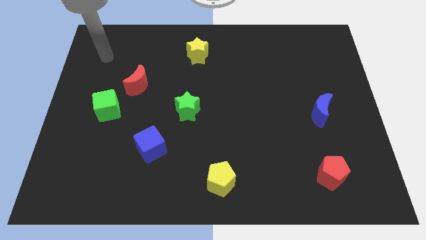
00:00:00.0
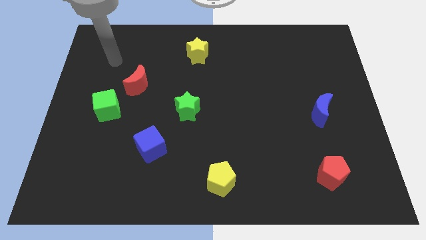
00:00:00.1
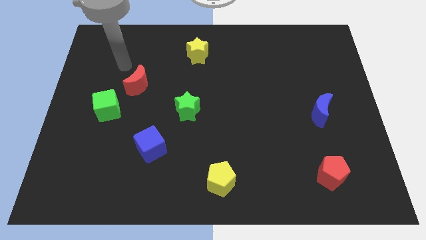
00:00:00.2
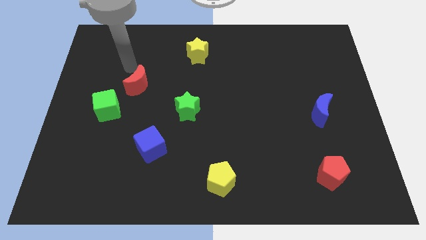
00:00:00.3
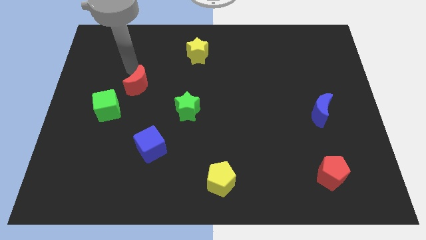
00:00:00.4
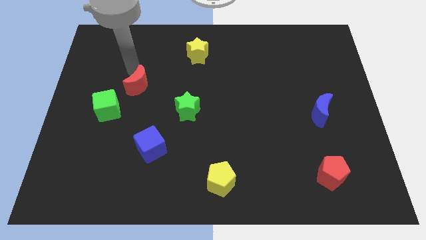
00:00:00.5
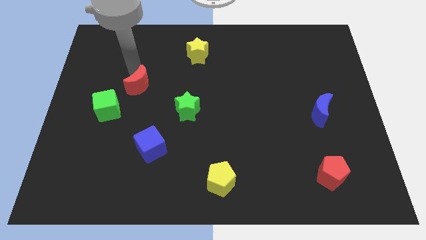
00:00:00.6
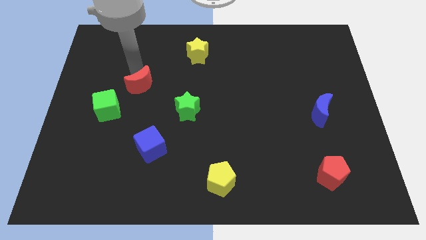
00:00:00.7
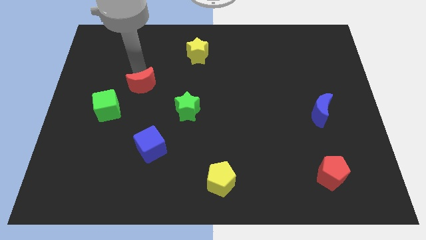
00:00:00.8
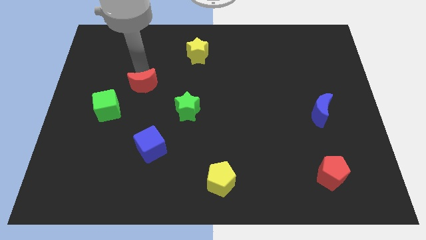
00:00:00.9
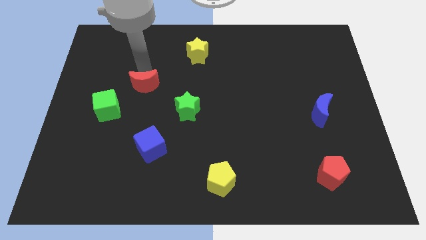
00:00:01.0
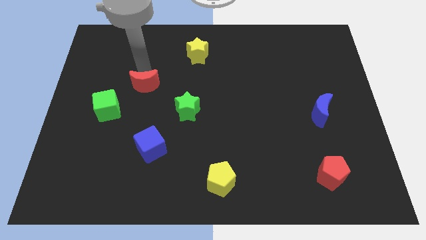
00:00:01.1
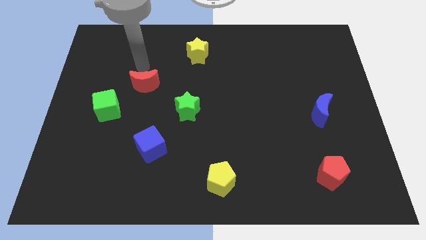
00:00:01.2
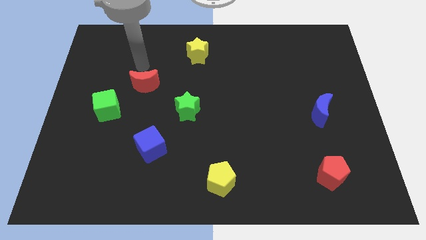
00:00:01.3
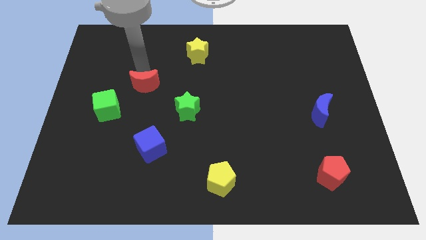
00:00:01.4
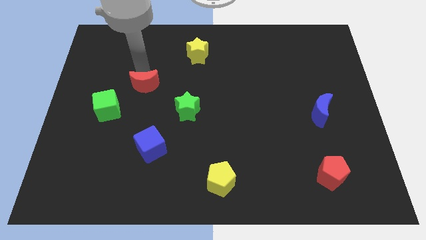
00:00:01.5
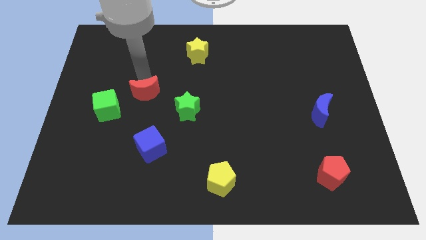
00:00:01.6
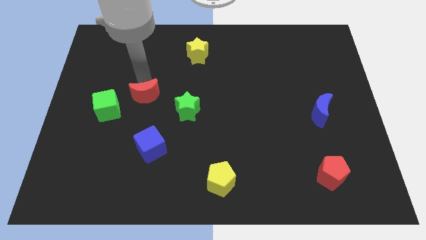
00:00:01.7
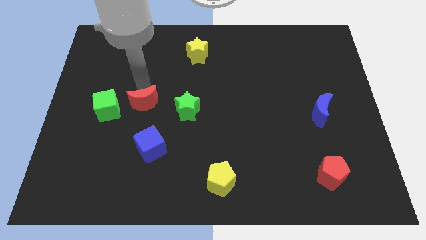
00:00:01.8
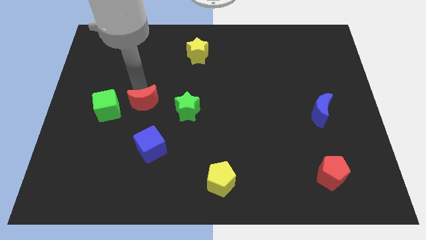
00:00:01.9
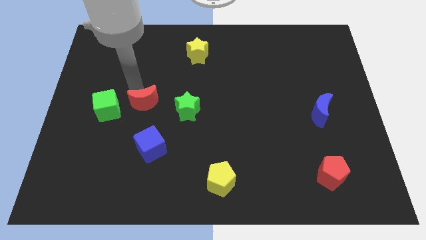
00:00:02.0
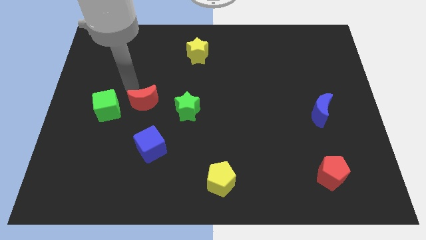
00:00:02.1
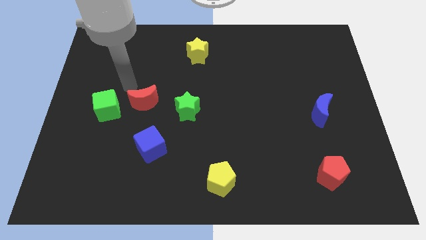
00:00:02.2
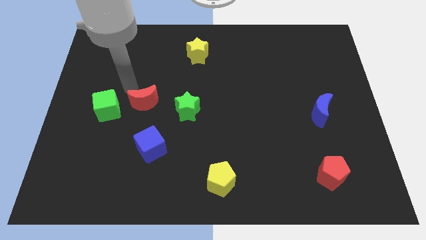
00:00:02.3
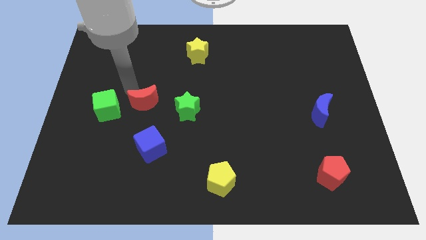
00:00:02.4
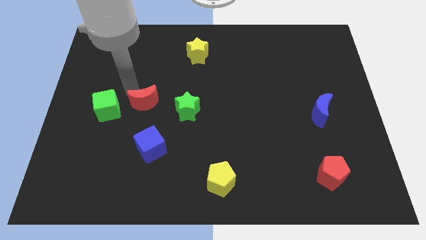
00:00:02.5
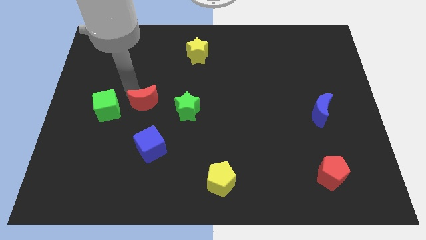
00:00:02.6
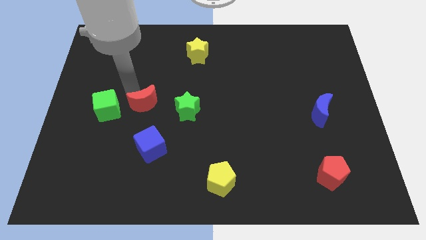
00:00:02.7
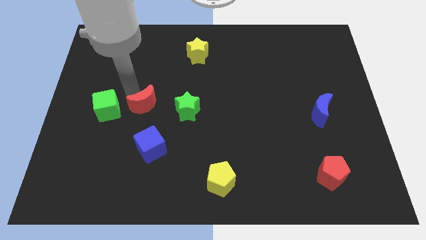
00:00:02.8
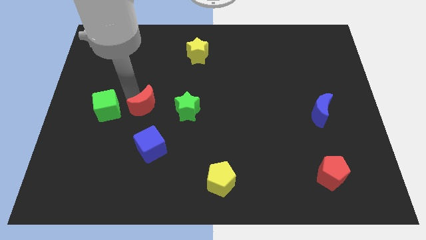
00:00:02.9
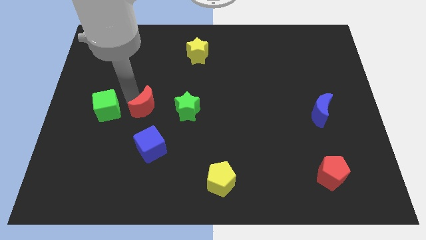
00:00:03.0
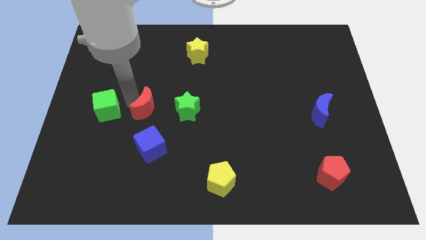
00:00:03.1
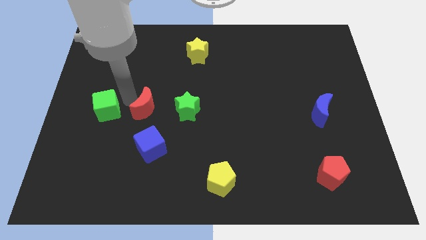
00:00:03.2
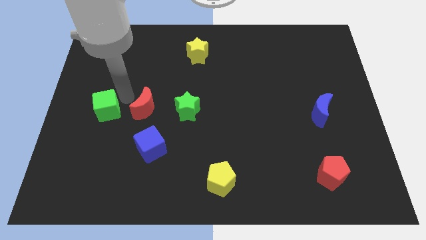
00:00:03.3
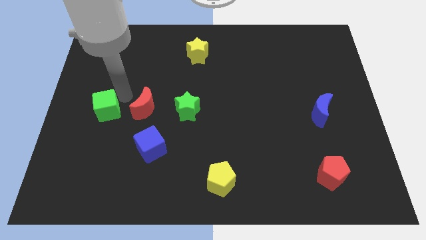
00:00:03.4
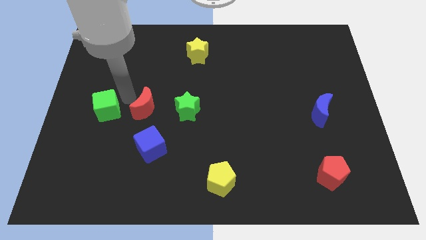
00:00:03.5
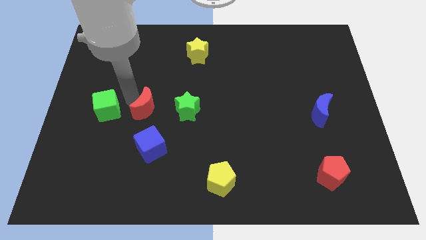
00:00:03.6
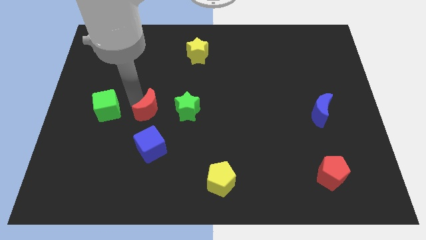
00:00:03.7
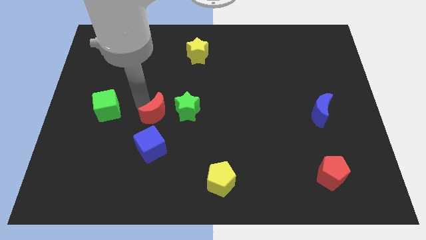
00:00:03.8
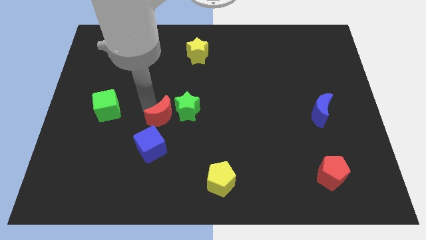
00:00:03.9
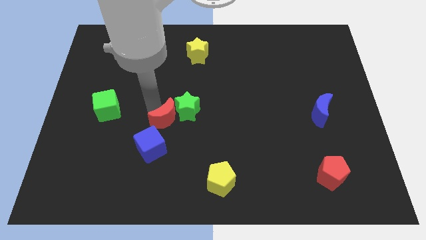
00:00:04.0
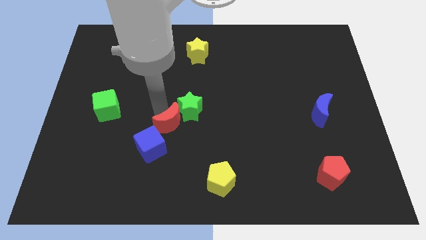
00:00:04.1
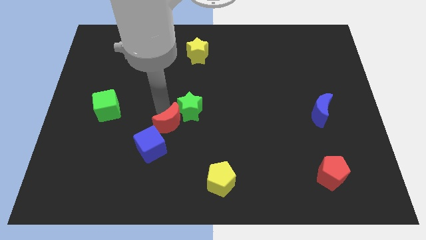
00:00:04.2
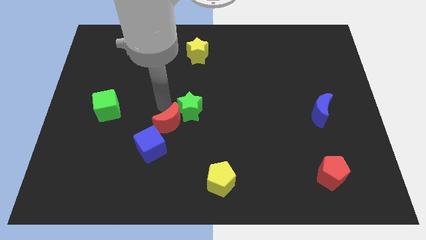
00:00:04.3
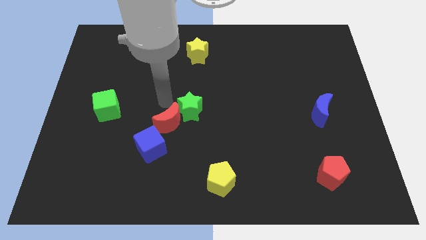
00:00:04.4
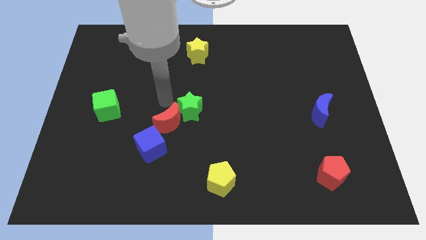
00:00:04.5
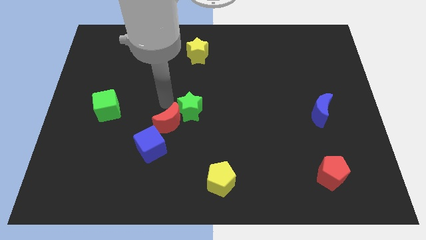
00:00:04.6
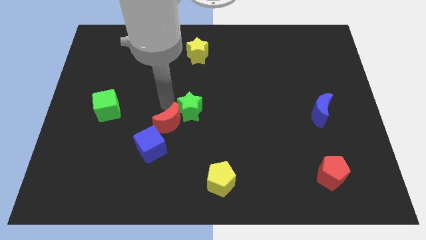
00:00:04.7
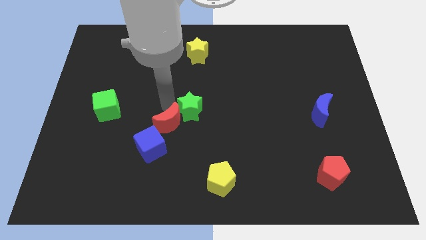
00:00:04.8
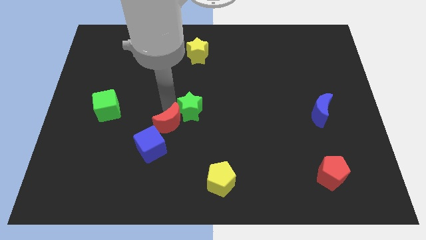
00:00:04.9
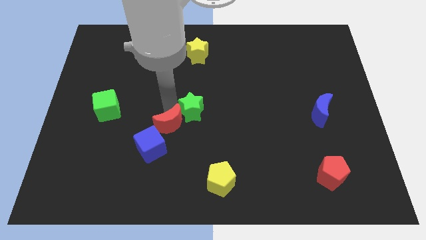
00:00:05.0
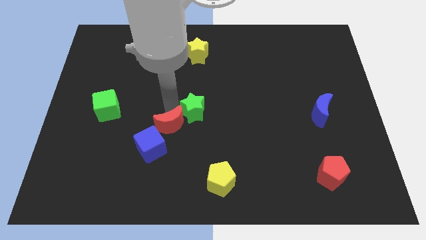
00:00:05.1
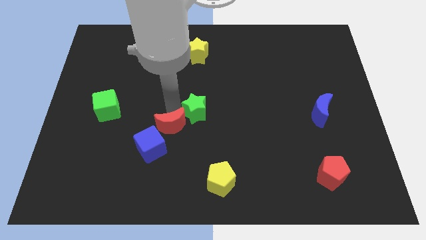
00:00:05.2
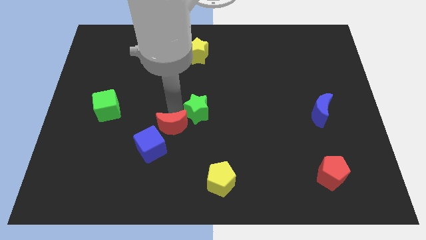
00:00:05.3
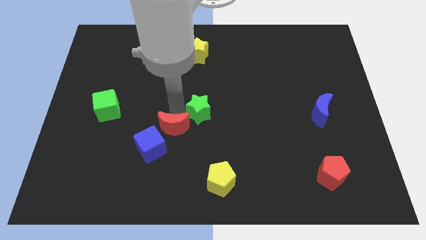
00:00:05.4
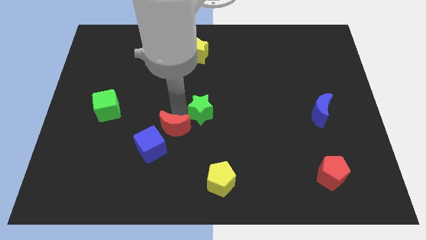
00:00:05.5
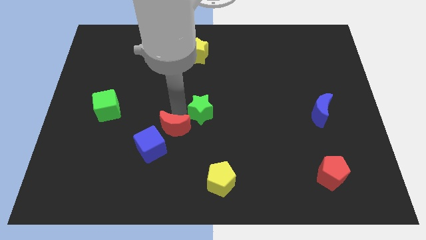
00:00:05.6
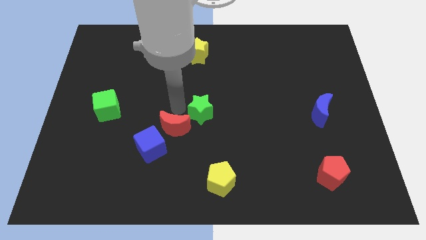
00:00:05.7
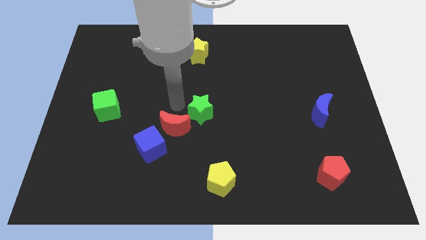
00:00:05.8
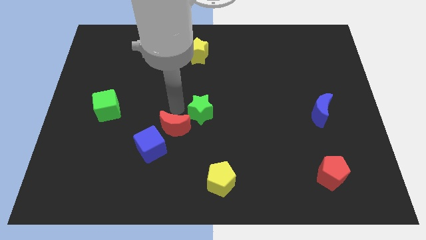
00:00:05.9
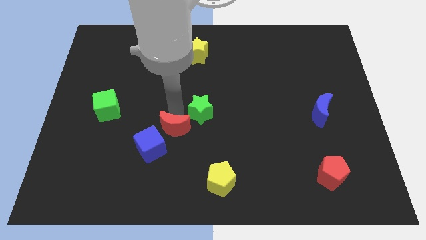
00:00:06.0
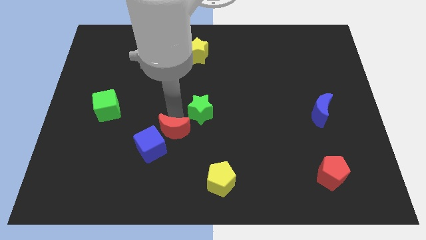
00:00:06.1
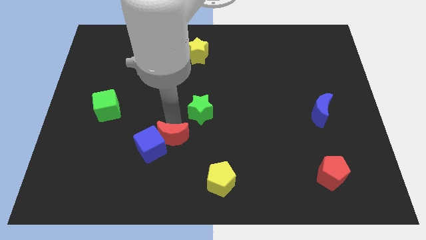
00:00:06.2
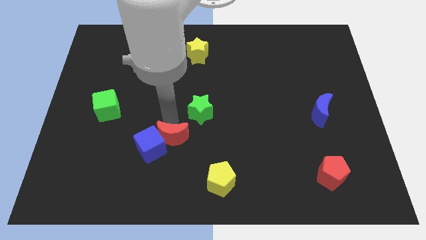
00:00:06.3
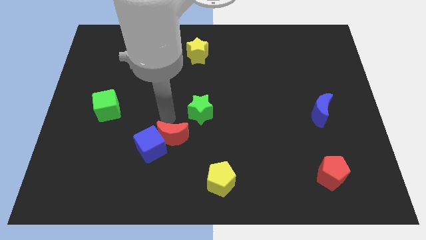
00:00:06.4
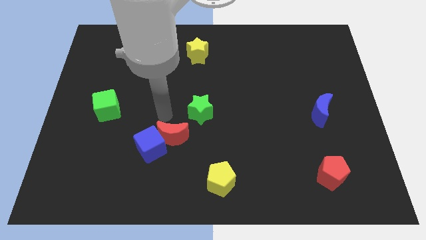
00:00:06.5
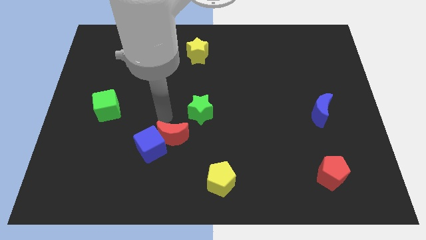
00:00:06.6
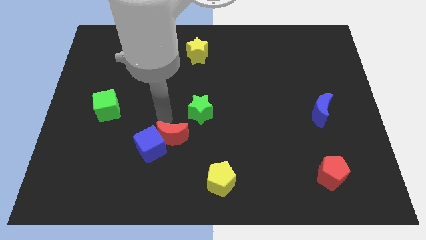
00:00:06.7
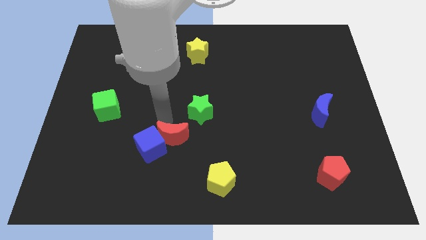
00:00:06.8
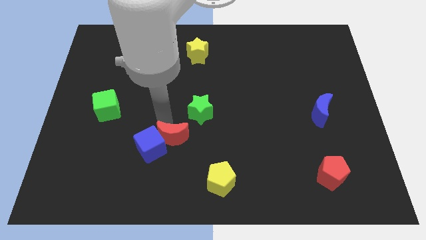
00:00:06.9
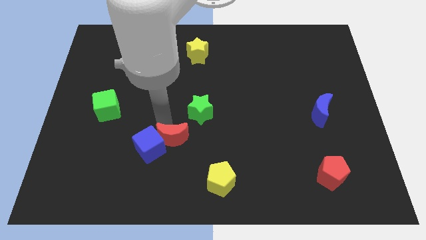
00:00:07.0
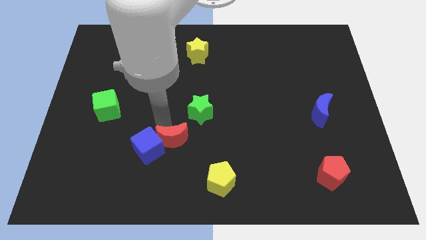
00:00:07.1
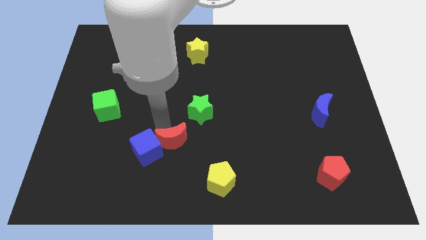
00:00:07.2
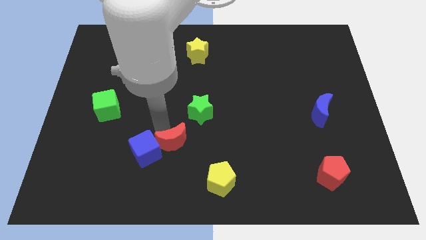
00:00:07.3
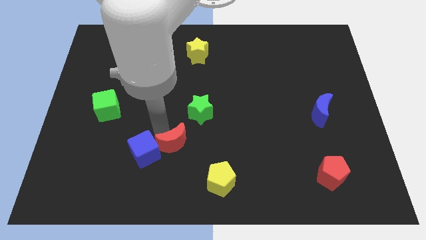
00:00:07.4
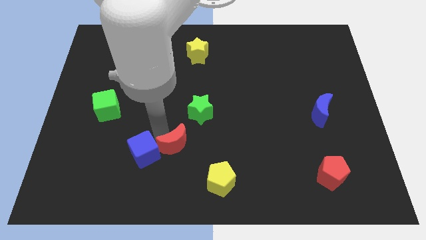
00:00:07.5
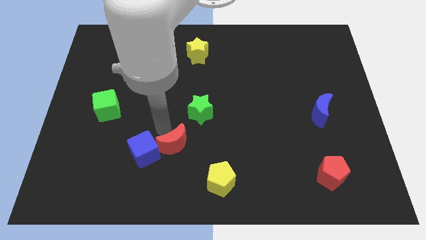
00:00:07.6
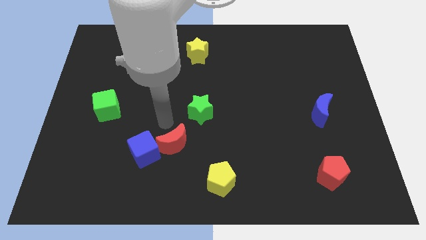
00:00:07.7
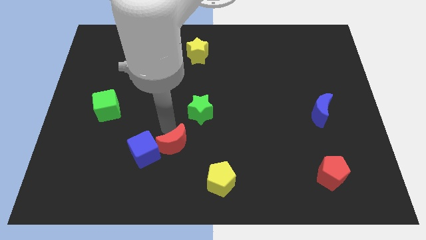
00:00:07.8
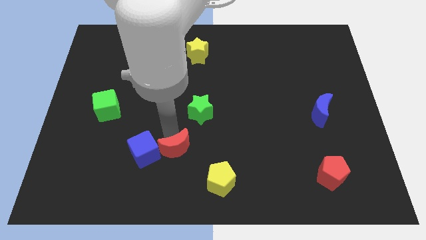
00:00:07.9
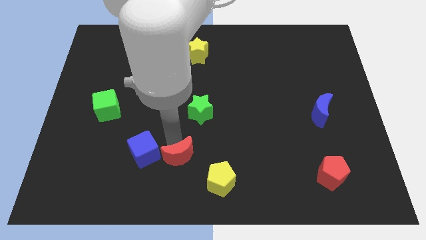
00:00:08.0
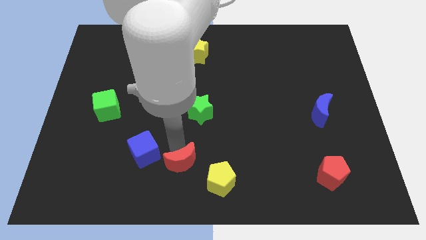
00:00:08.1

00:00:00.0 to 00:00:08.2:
push the red moon to the bottom side
